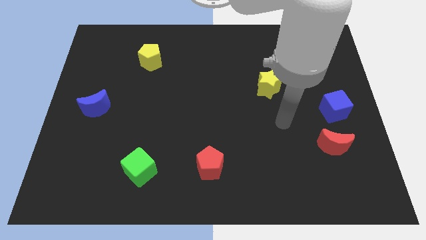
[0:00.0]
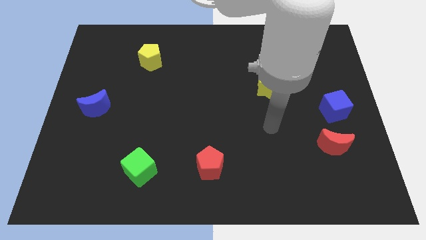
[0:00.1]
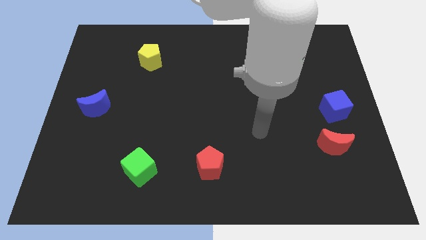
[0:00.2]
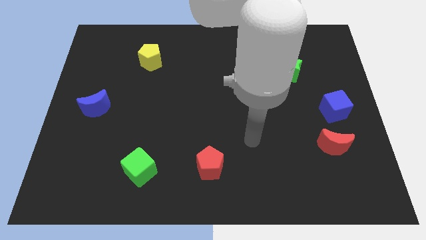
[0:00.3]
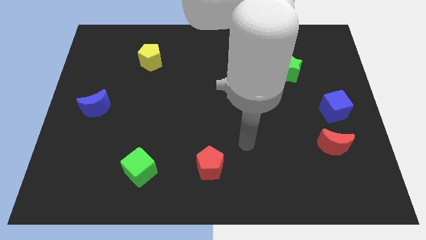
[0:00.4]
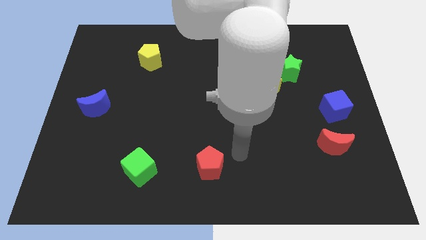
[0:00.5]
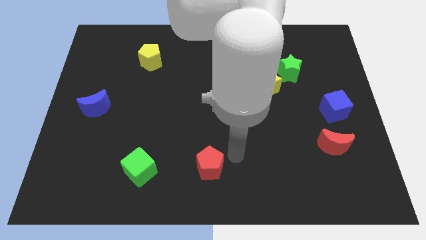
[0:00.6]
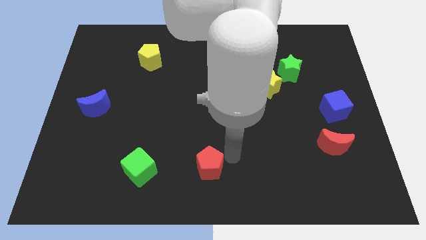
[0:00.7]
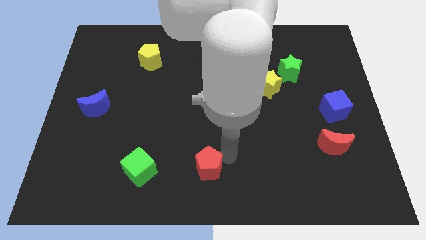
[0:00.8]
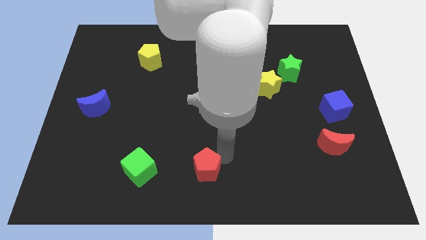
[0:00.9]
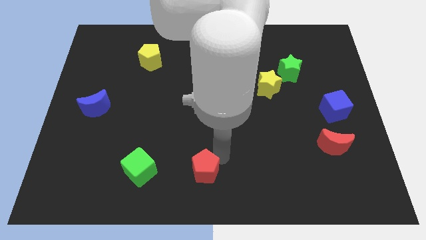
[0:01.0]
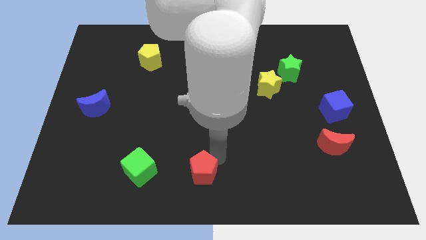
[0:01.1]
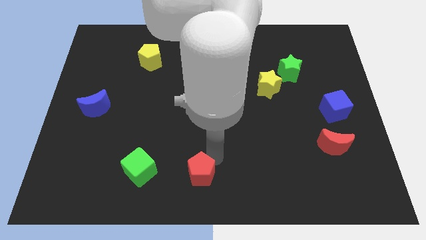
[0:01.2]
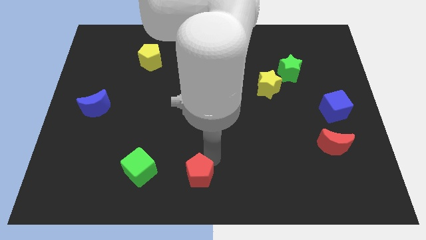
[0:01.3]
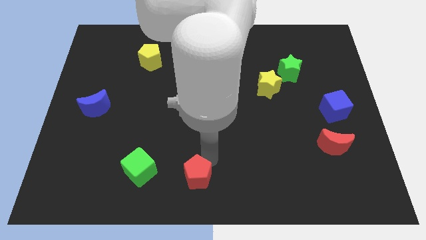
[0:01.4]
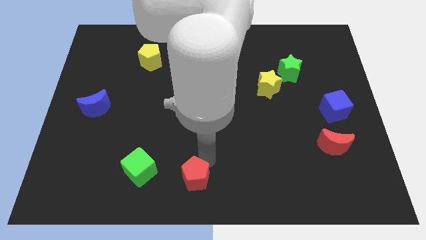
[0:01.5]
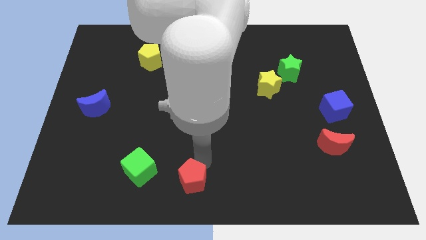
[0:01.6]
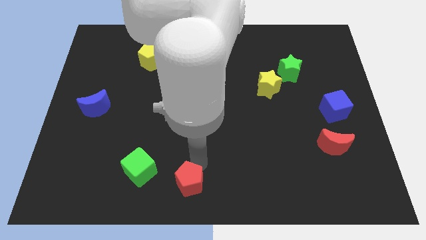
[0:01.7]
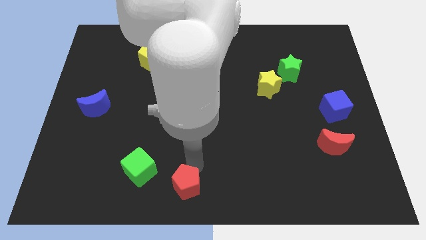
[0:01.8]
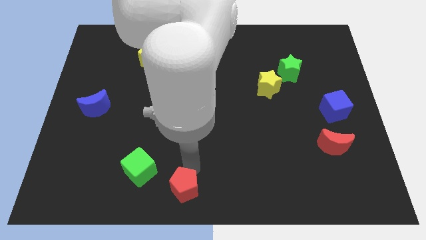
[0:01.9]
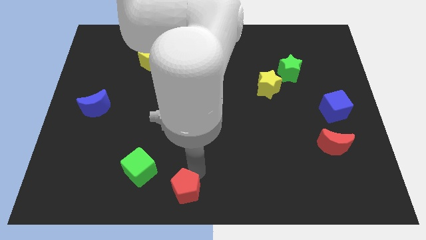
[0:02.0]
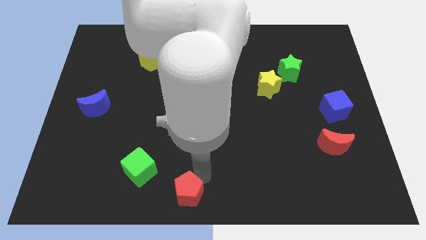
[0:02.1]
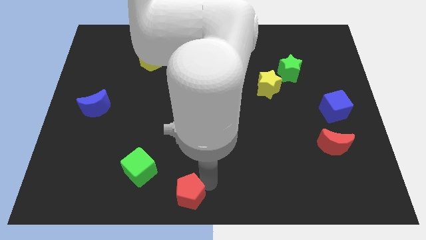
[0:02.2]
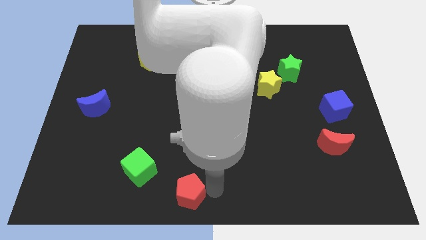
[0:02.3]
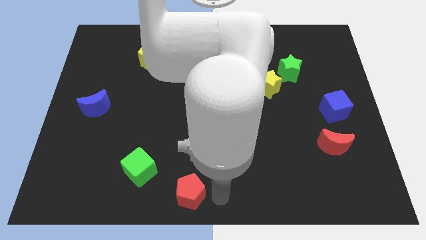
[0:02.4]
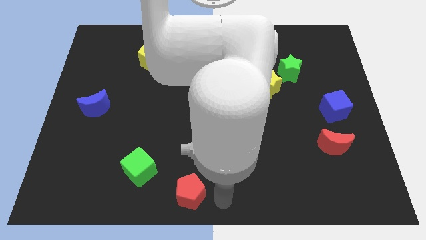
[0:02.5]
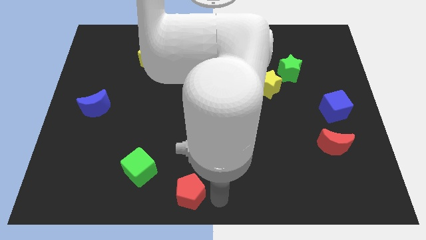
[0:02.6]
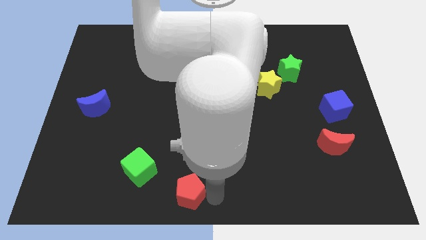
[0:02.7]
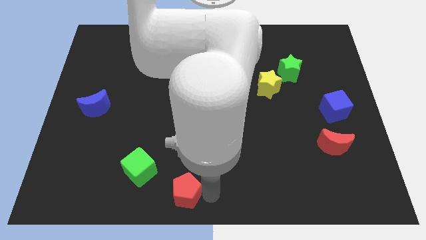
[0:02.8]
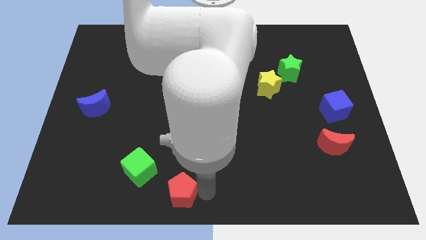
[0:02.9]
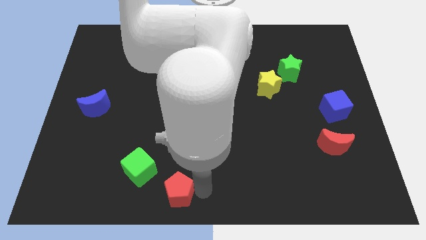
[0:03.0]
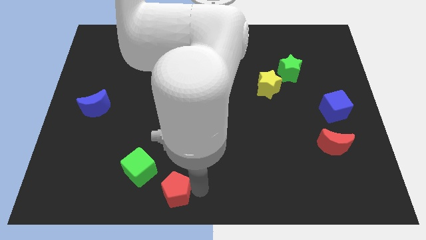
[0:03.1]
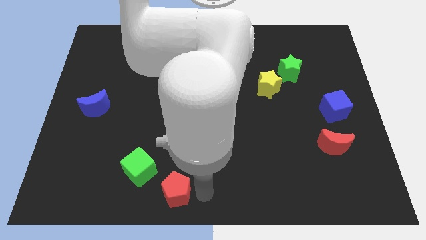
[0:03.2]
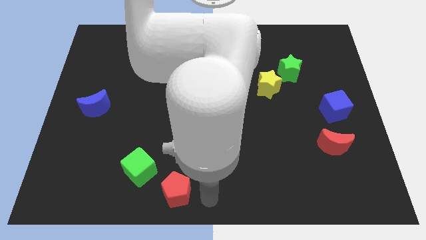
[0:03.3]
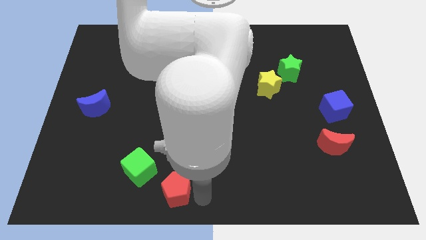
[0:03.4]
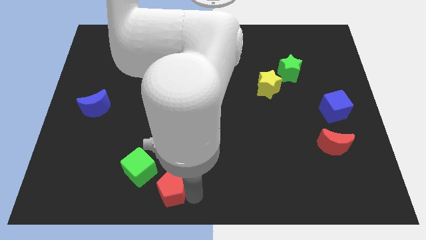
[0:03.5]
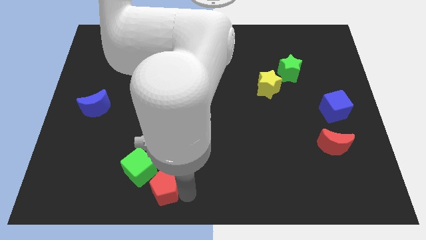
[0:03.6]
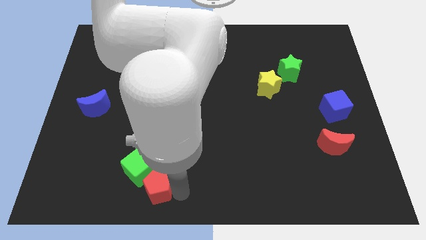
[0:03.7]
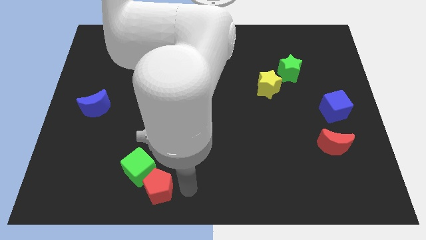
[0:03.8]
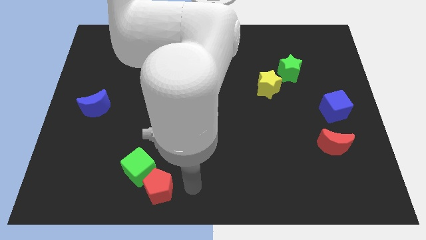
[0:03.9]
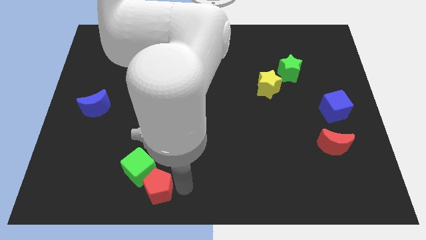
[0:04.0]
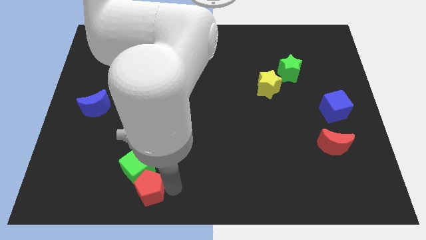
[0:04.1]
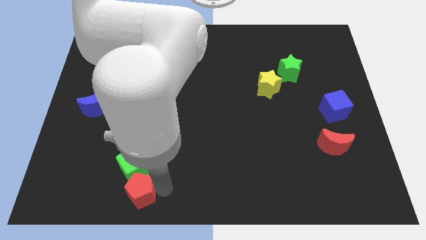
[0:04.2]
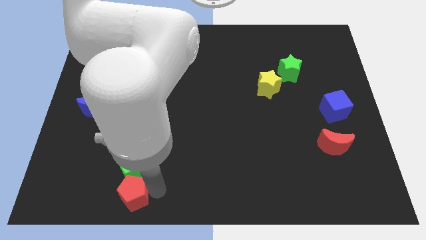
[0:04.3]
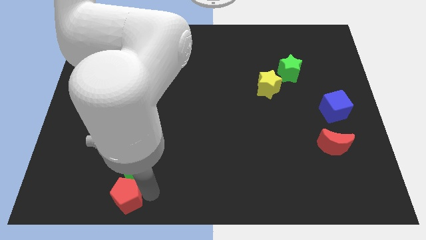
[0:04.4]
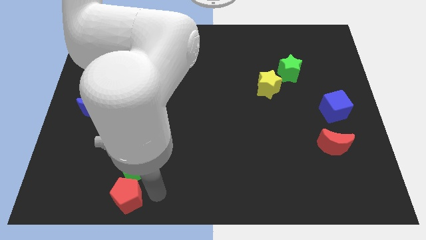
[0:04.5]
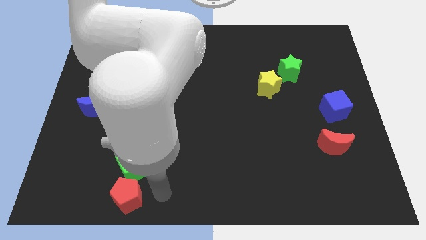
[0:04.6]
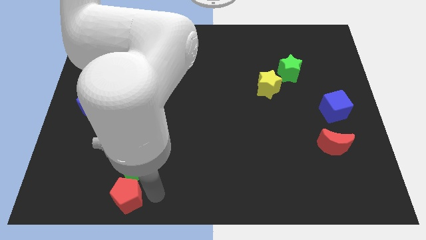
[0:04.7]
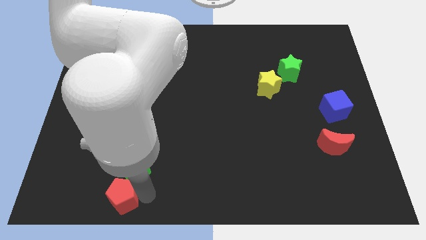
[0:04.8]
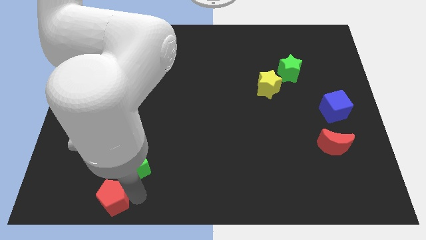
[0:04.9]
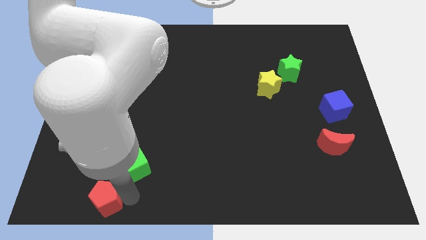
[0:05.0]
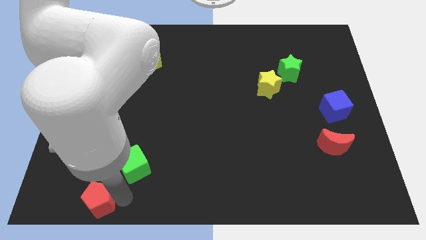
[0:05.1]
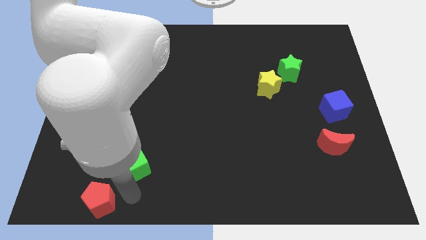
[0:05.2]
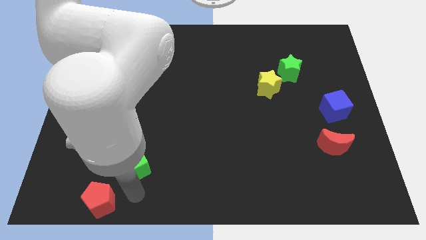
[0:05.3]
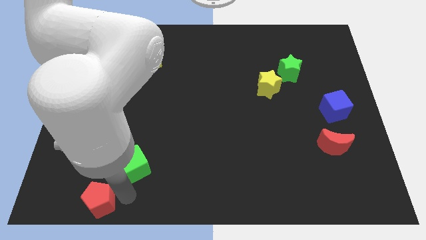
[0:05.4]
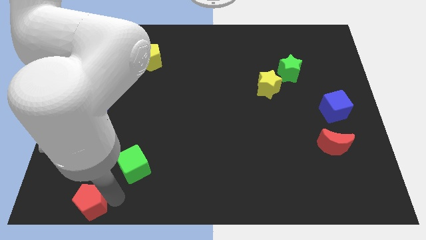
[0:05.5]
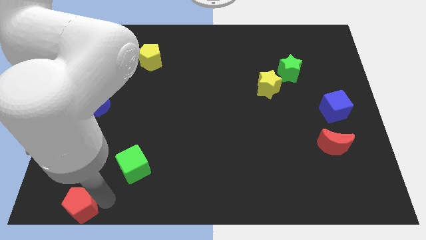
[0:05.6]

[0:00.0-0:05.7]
put the red pentagon to the lower left corner
